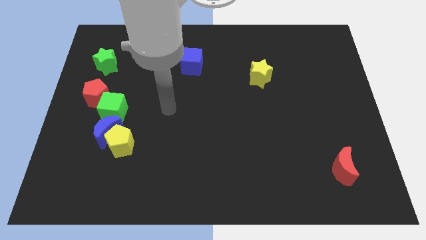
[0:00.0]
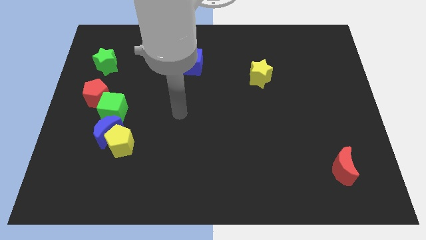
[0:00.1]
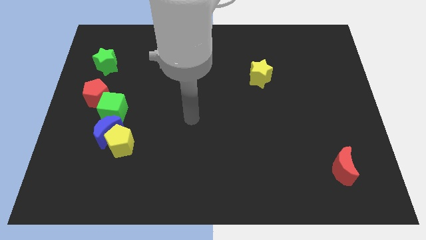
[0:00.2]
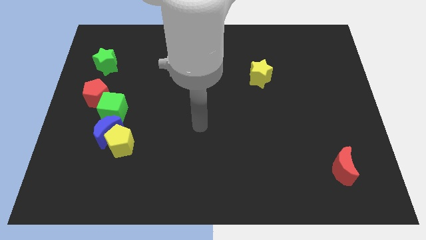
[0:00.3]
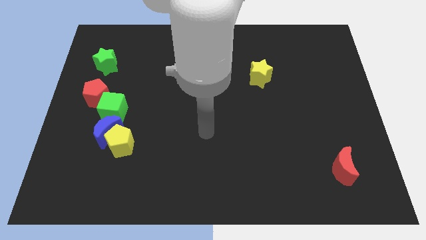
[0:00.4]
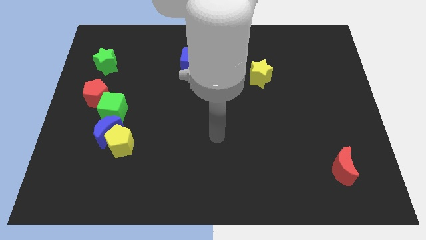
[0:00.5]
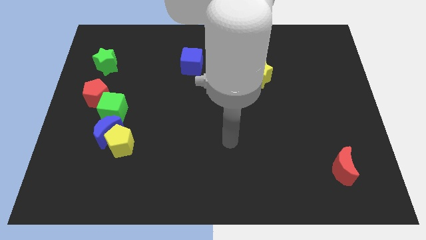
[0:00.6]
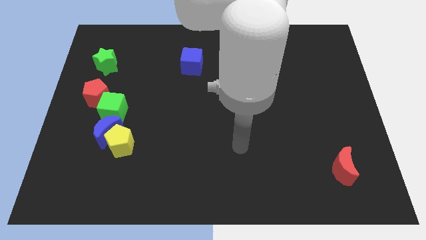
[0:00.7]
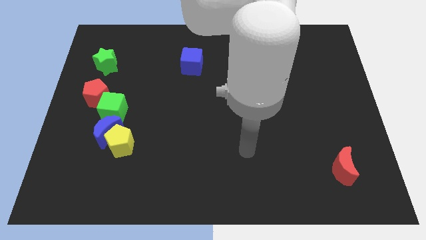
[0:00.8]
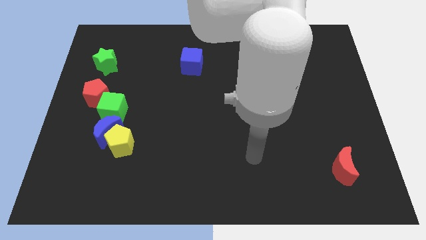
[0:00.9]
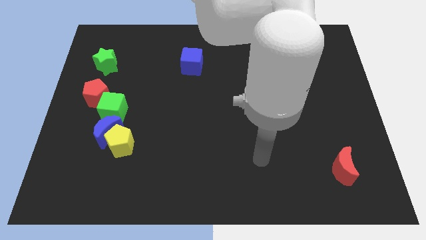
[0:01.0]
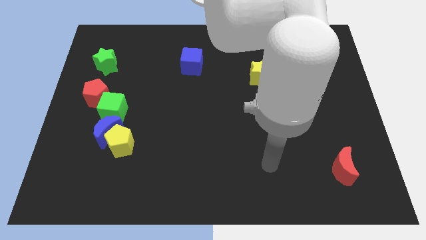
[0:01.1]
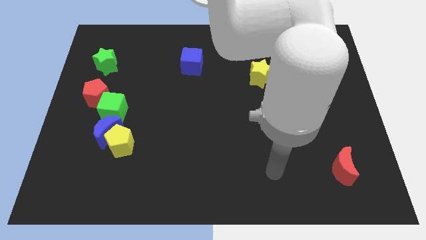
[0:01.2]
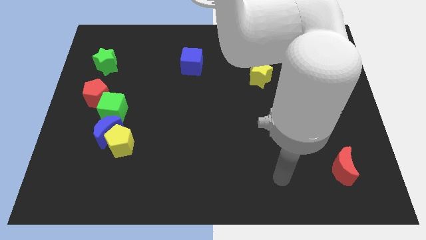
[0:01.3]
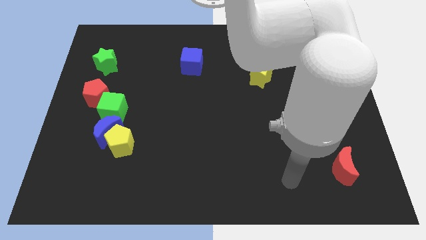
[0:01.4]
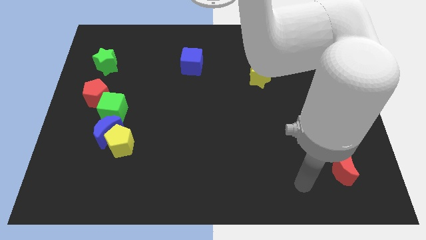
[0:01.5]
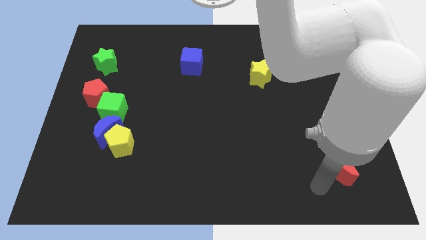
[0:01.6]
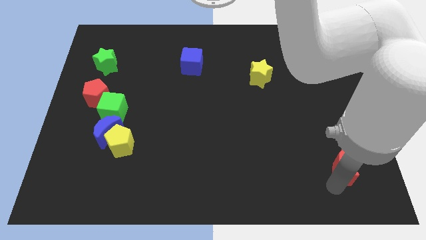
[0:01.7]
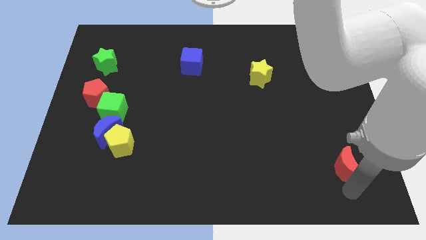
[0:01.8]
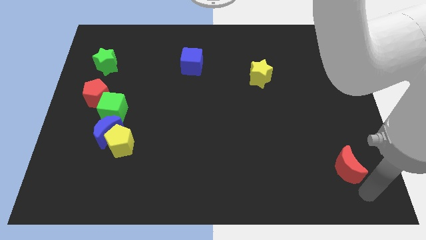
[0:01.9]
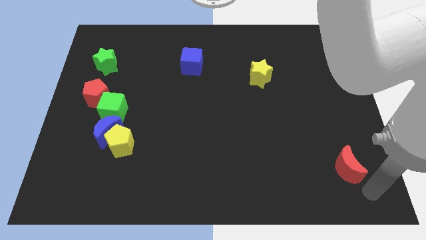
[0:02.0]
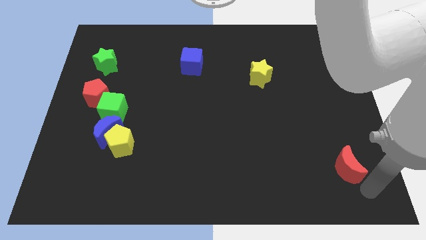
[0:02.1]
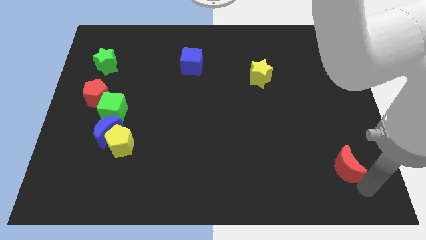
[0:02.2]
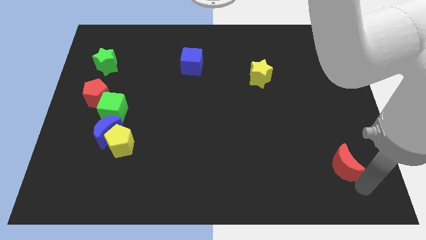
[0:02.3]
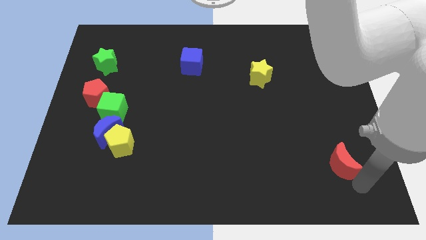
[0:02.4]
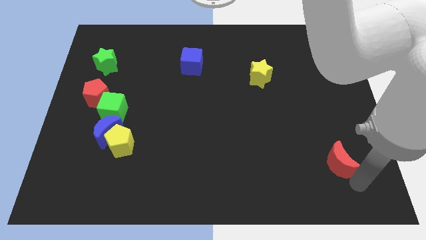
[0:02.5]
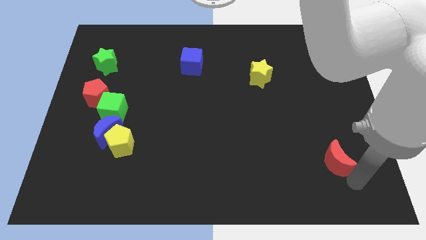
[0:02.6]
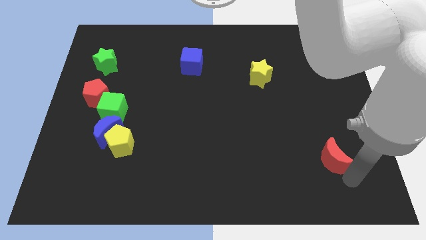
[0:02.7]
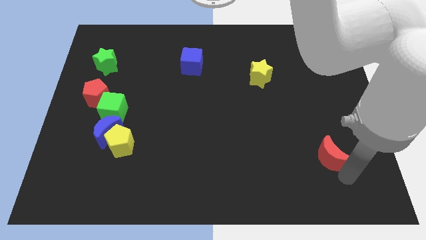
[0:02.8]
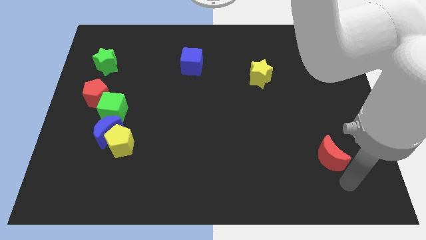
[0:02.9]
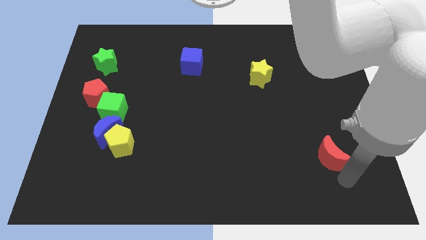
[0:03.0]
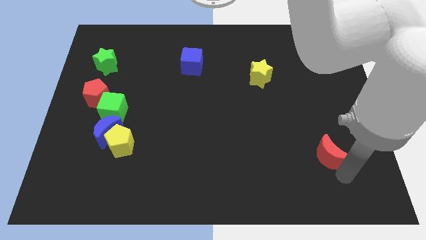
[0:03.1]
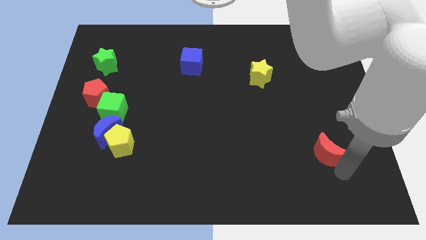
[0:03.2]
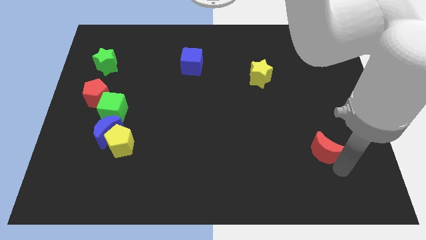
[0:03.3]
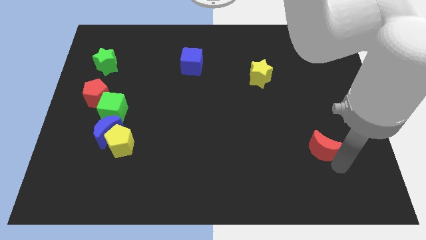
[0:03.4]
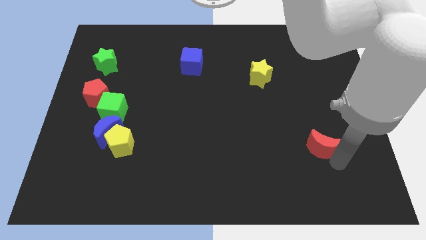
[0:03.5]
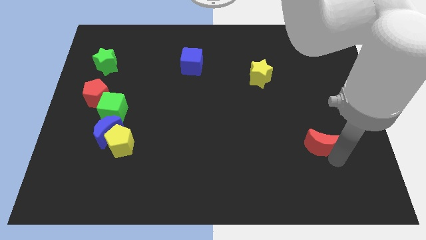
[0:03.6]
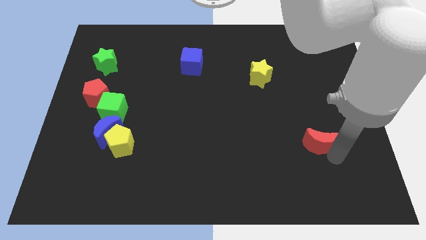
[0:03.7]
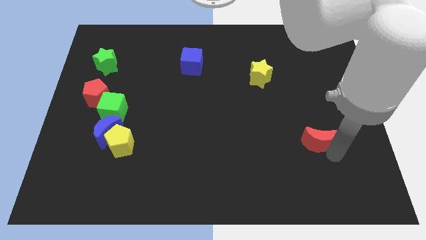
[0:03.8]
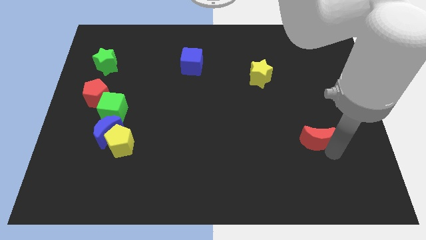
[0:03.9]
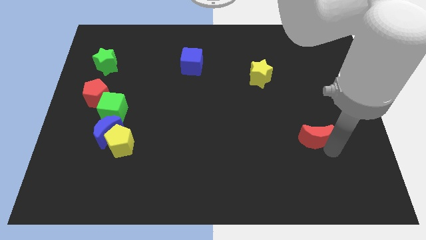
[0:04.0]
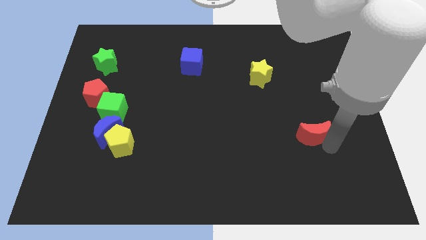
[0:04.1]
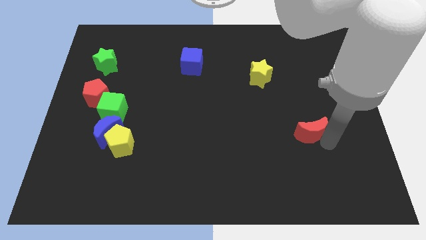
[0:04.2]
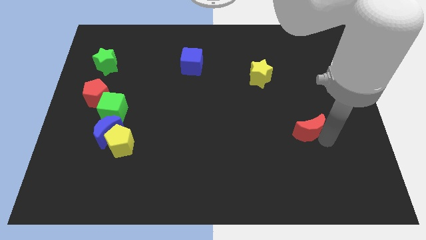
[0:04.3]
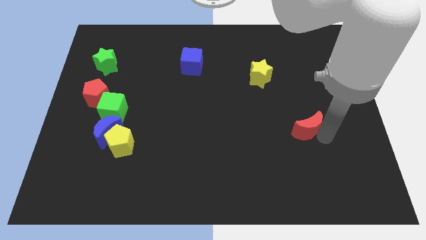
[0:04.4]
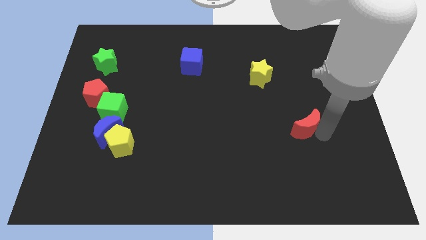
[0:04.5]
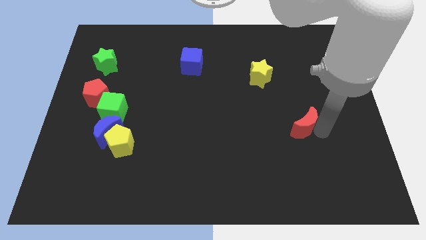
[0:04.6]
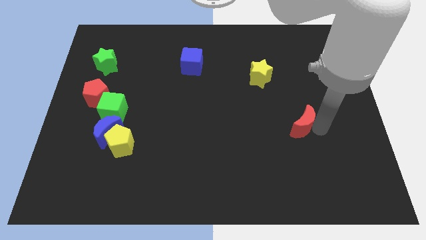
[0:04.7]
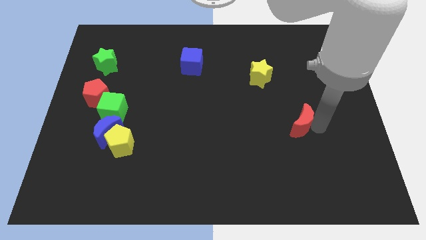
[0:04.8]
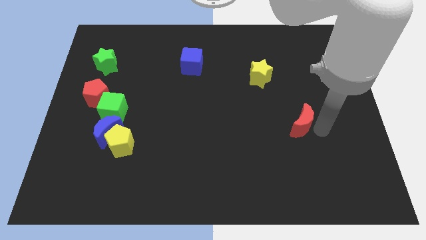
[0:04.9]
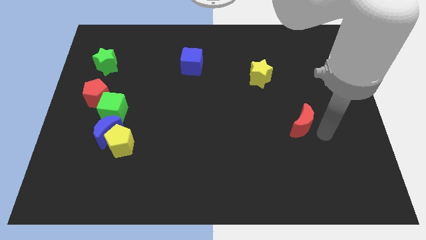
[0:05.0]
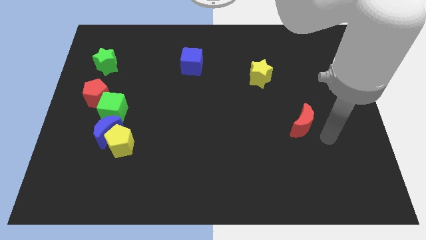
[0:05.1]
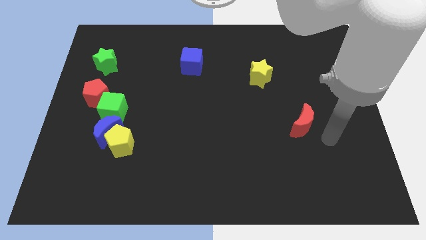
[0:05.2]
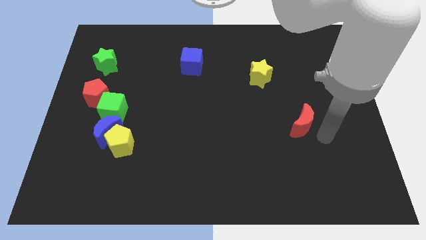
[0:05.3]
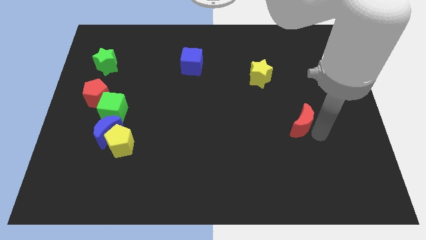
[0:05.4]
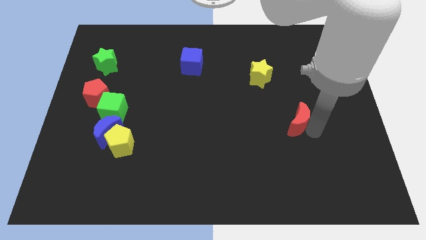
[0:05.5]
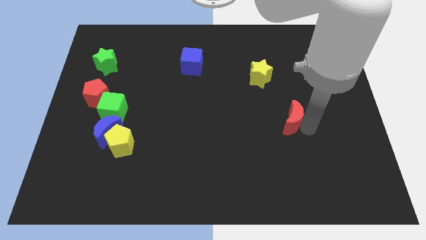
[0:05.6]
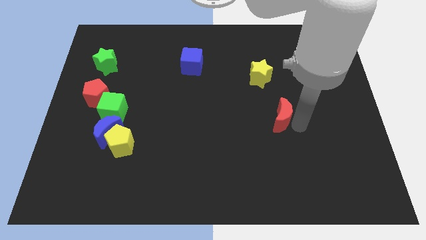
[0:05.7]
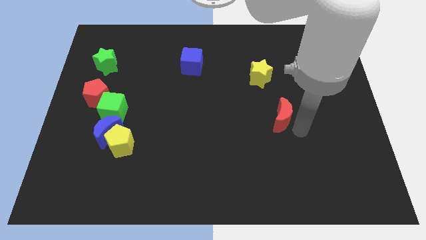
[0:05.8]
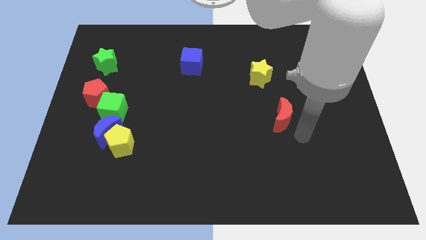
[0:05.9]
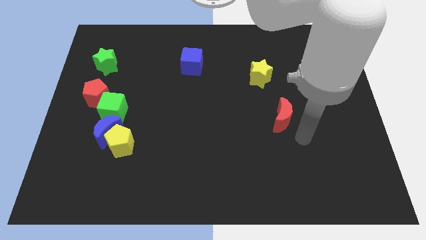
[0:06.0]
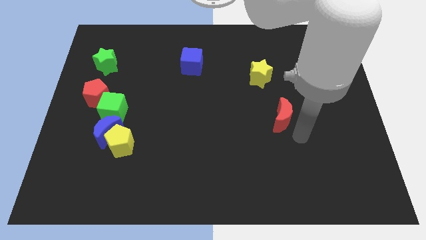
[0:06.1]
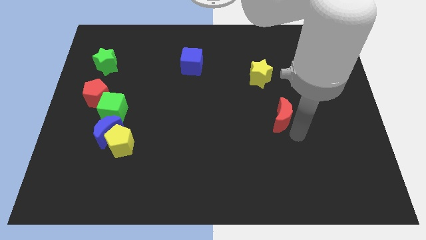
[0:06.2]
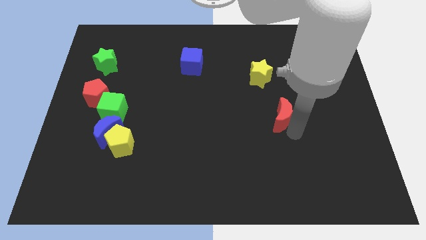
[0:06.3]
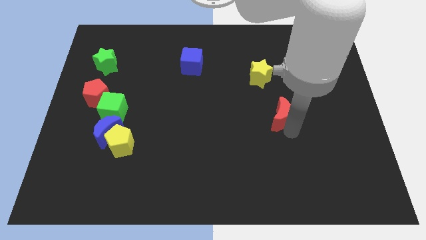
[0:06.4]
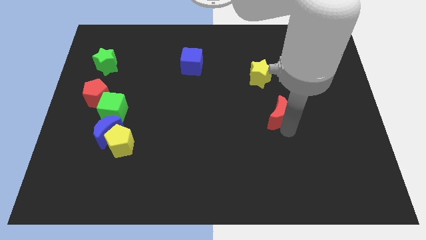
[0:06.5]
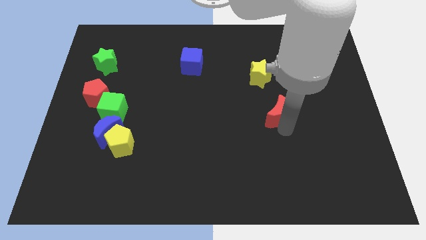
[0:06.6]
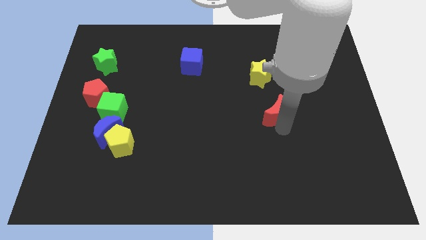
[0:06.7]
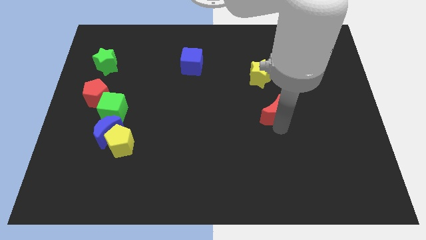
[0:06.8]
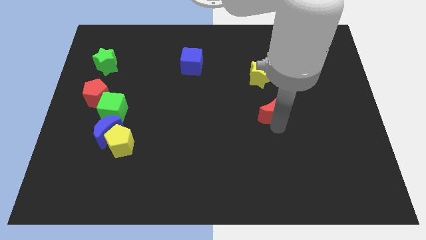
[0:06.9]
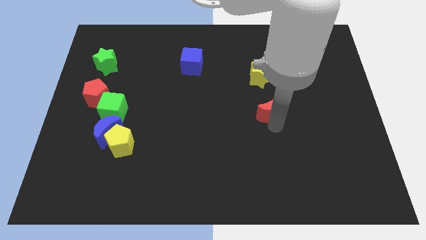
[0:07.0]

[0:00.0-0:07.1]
slide the red moon up and then to the left

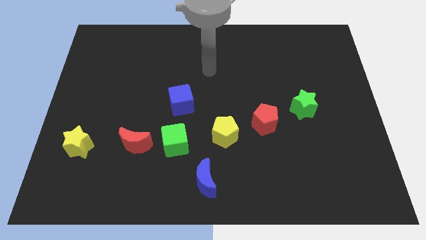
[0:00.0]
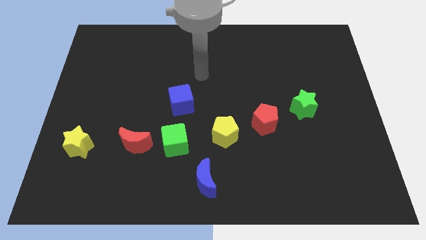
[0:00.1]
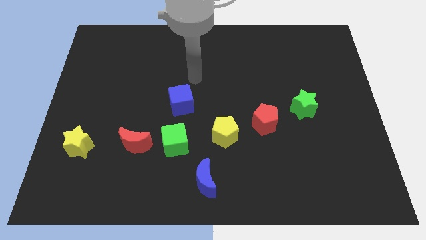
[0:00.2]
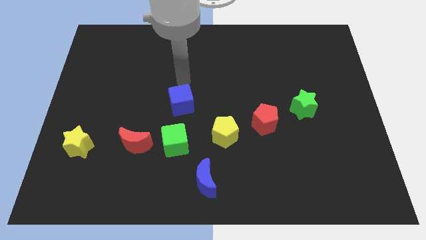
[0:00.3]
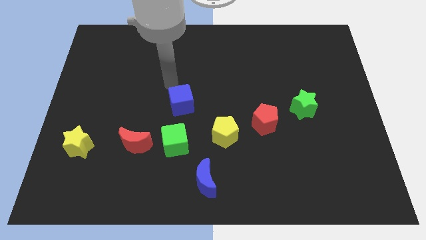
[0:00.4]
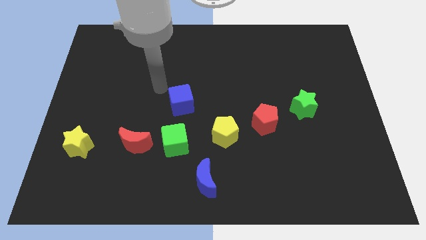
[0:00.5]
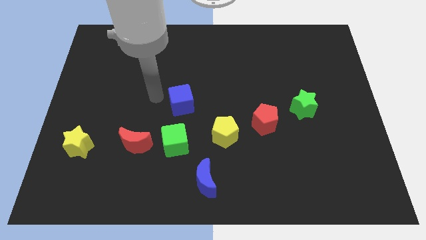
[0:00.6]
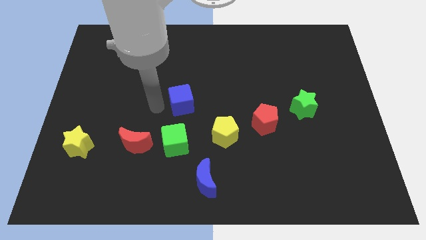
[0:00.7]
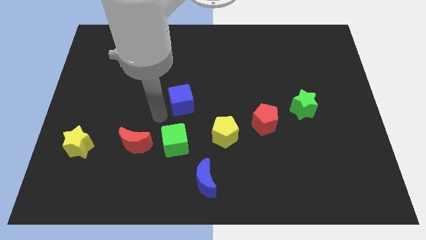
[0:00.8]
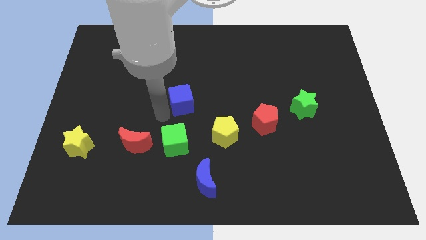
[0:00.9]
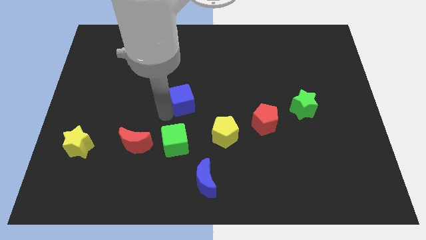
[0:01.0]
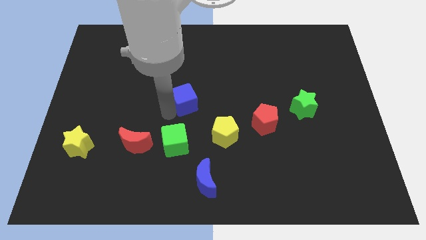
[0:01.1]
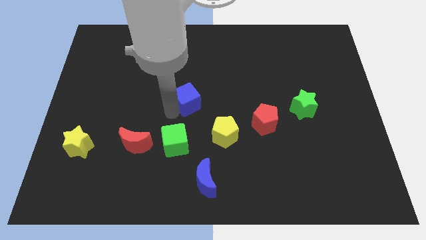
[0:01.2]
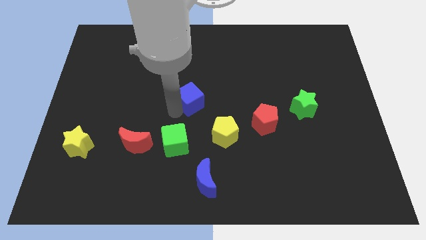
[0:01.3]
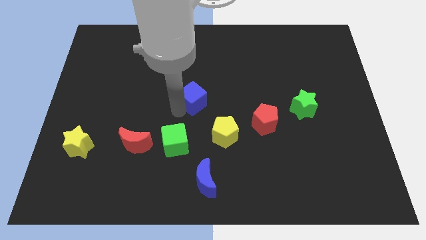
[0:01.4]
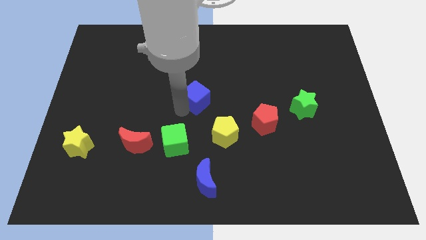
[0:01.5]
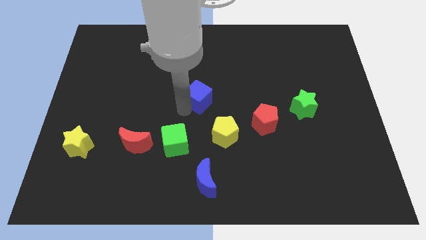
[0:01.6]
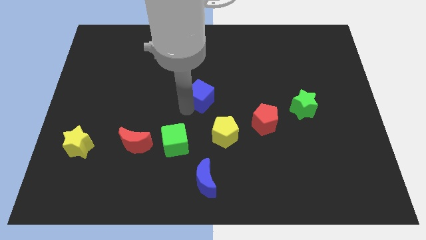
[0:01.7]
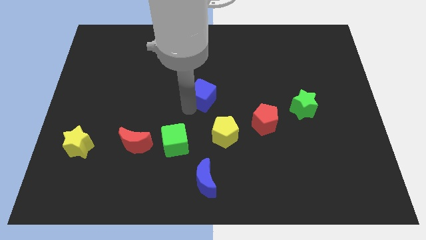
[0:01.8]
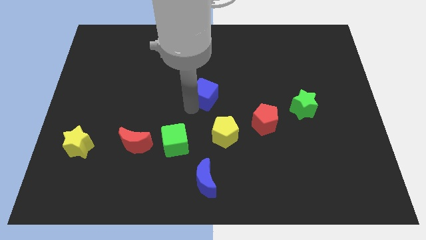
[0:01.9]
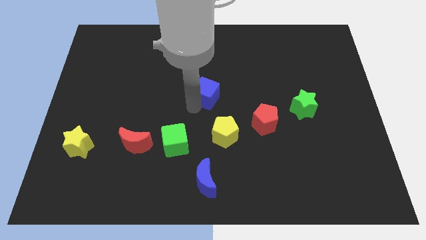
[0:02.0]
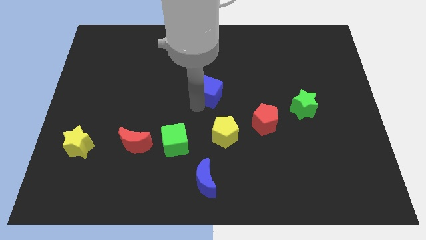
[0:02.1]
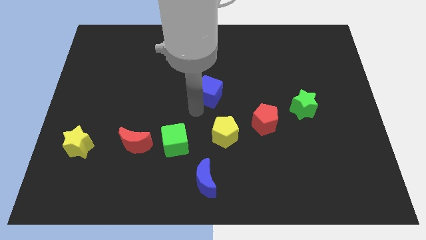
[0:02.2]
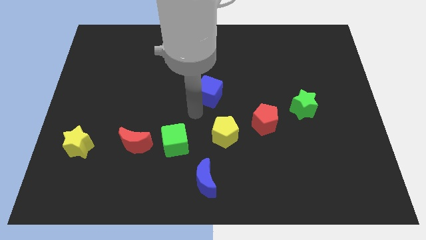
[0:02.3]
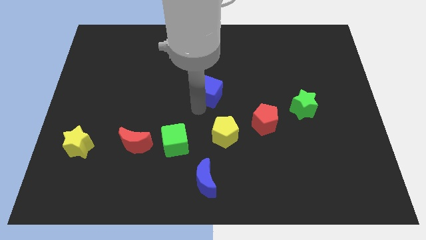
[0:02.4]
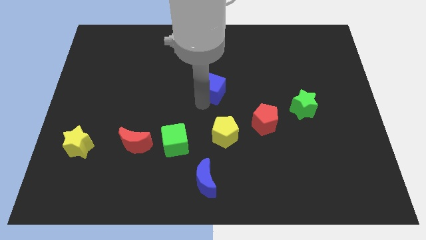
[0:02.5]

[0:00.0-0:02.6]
slightly slide the blue cube diagonally upwards and right
